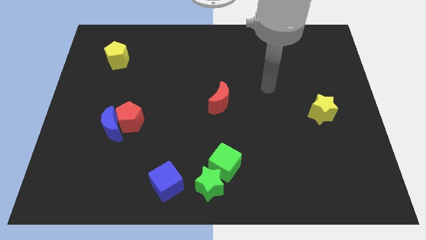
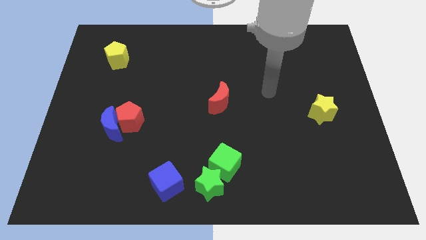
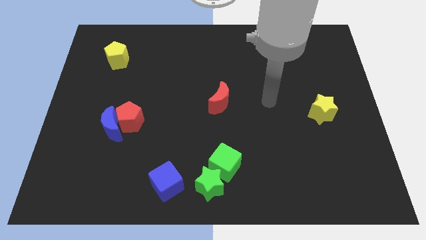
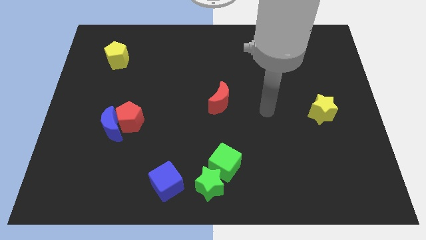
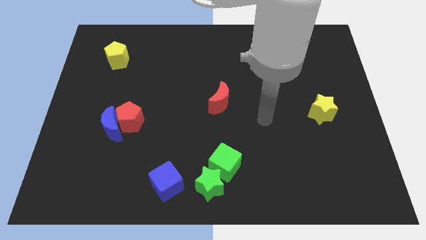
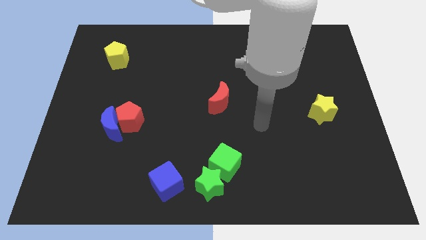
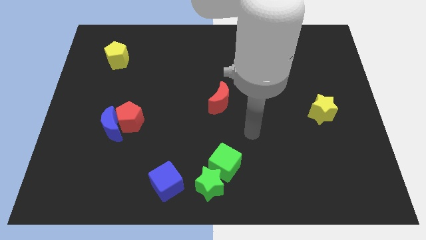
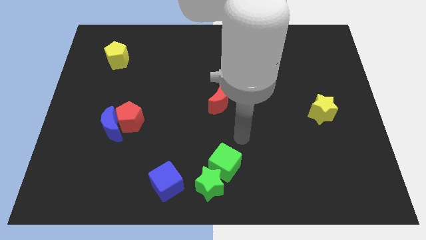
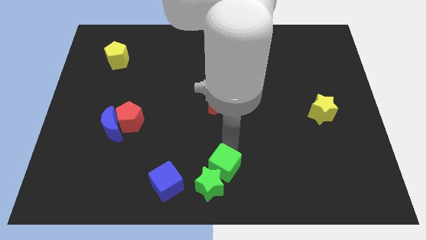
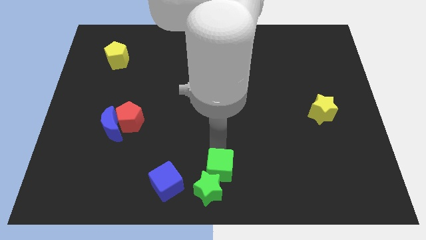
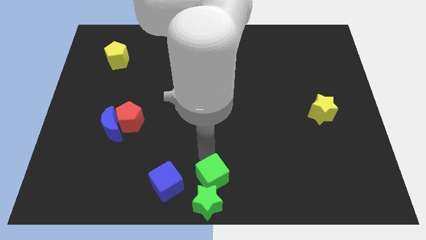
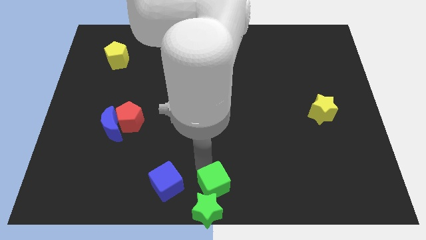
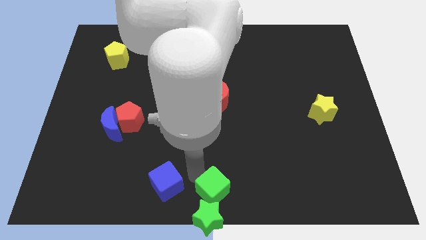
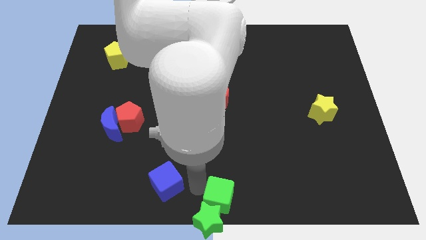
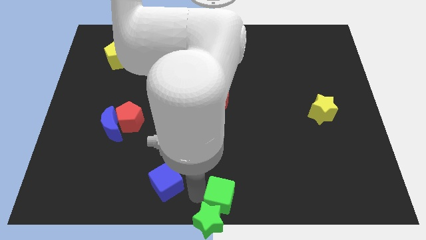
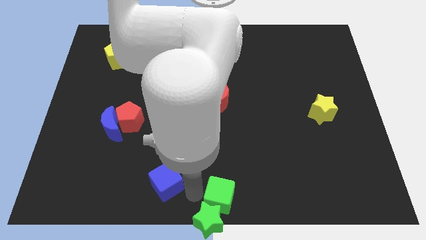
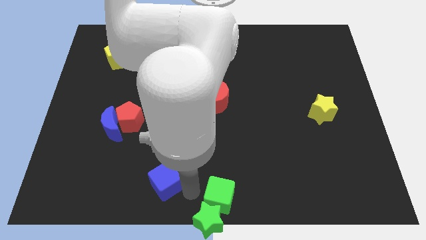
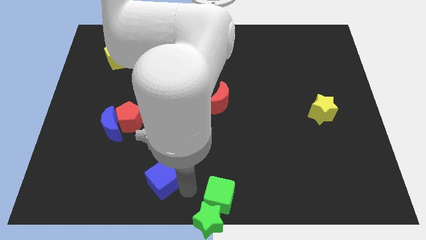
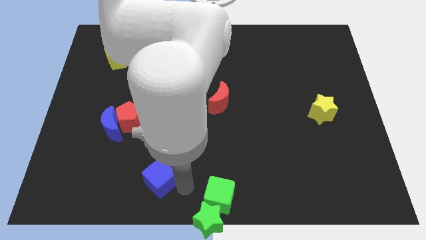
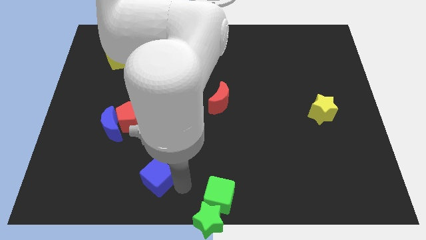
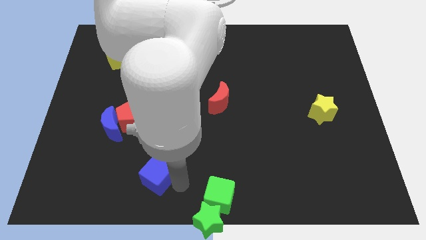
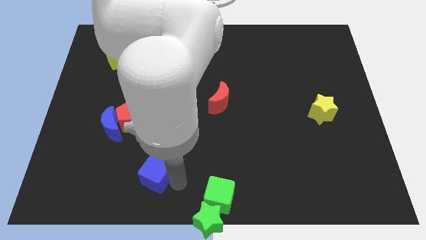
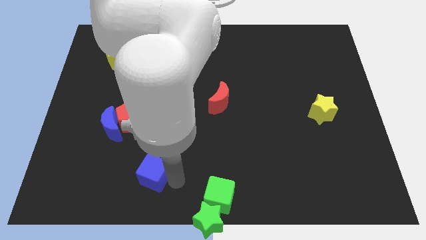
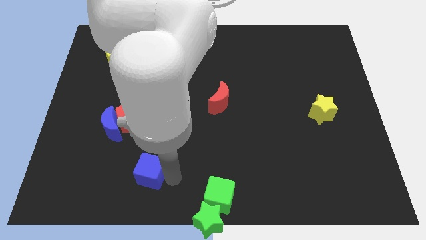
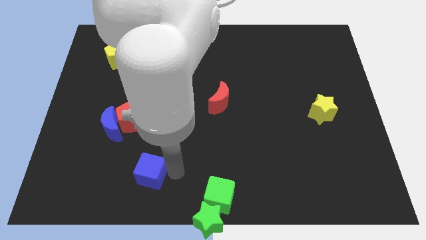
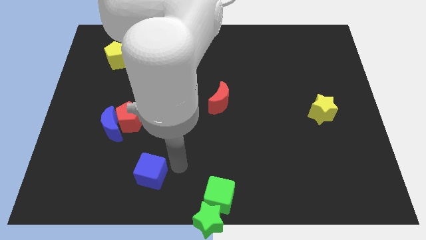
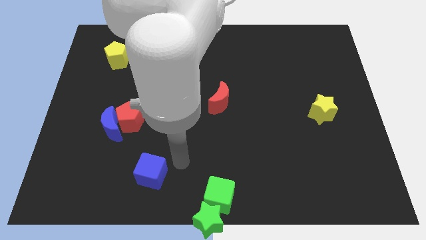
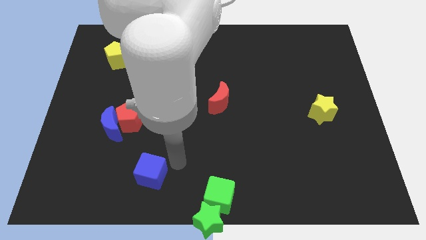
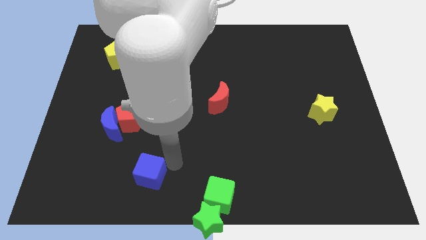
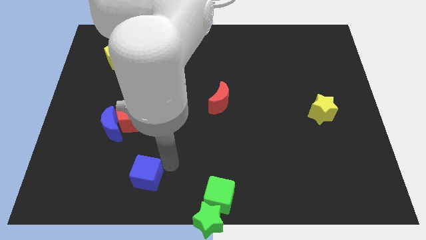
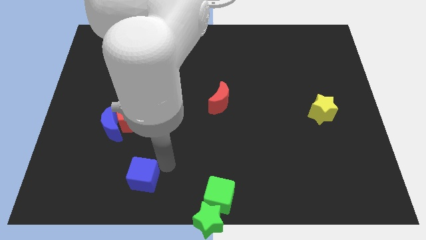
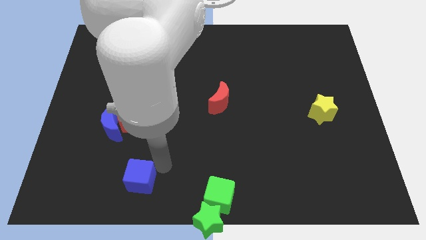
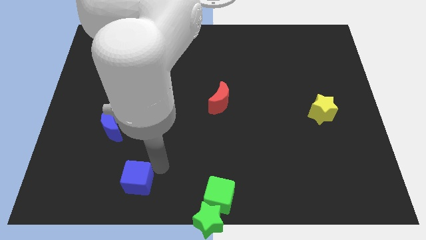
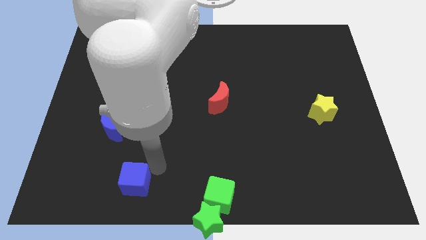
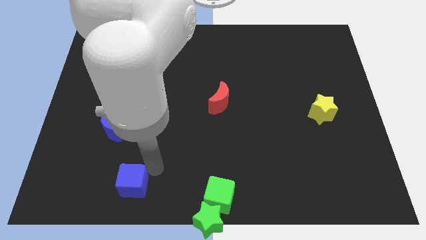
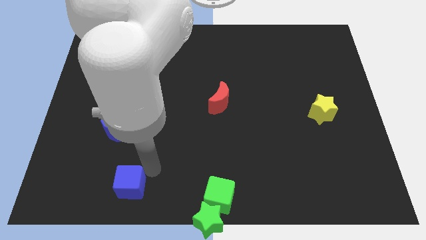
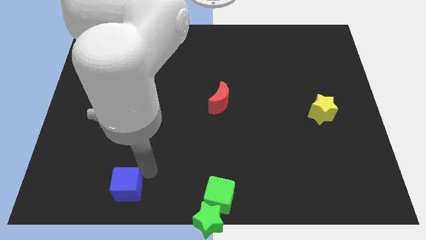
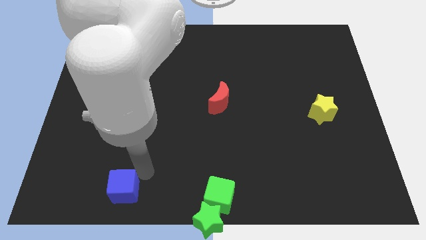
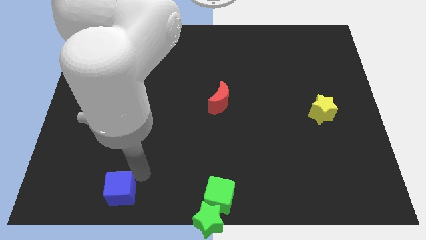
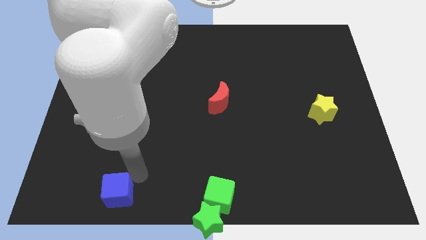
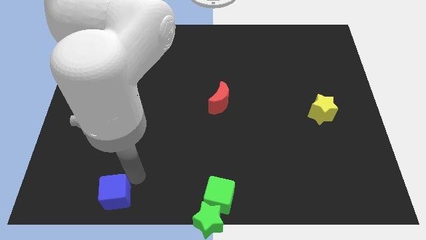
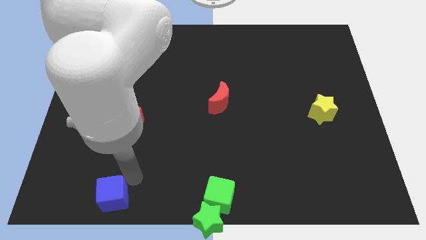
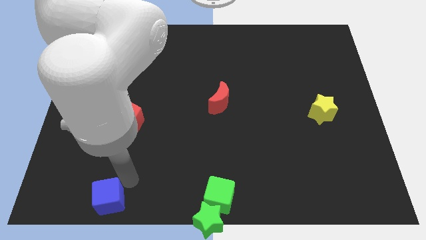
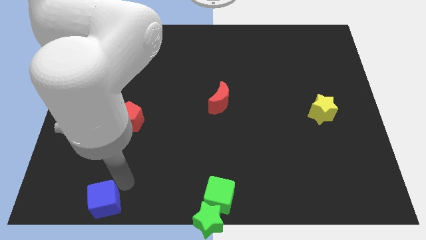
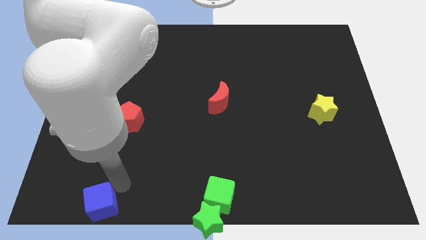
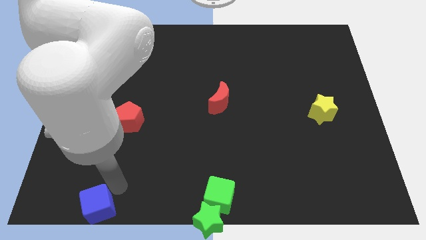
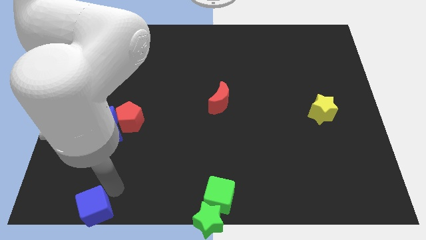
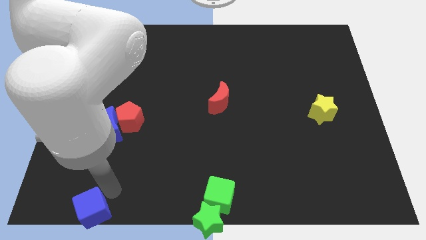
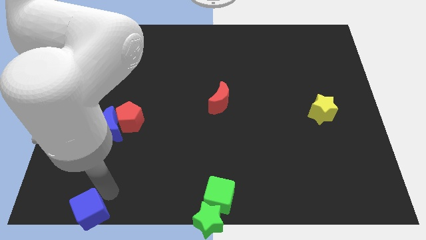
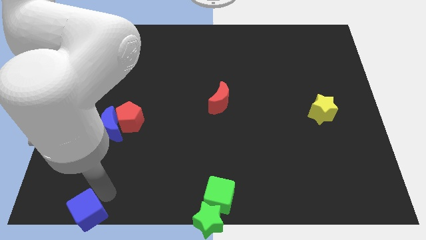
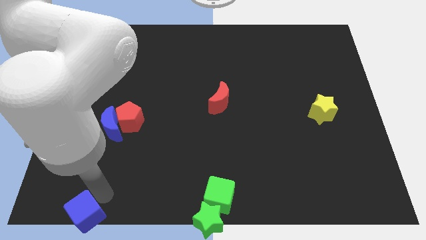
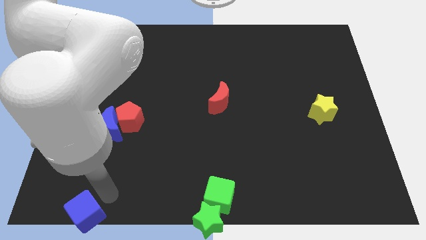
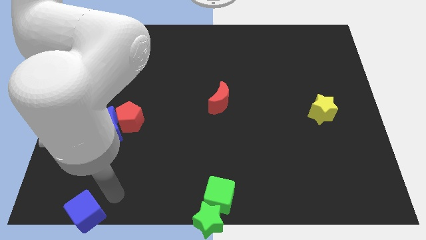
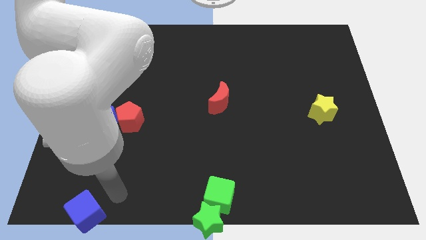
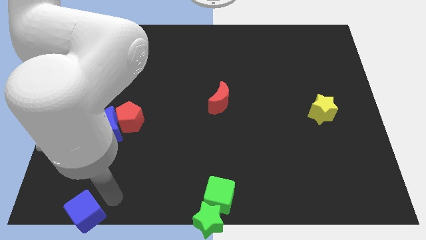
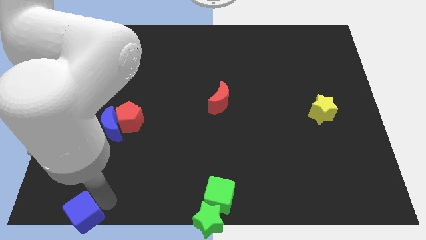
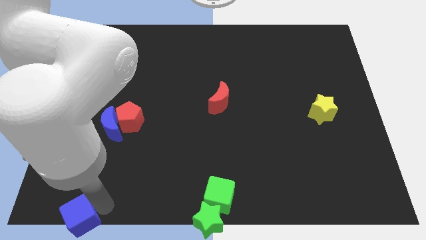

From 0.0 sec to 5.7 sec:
put the blue cube to the lower left corner

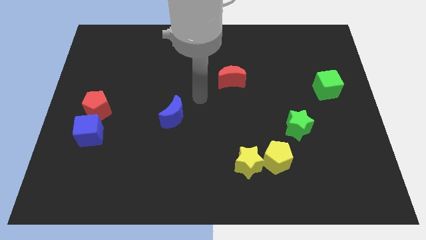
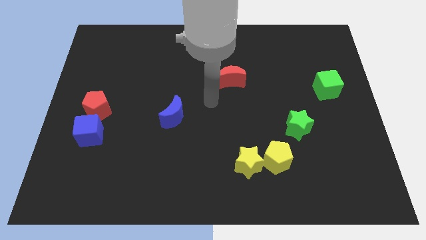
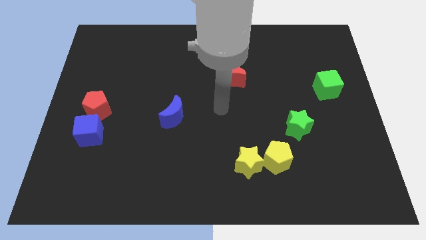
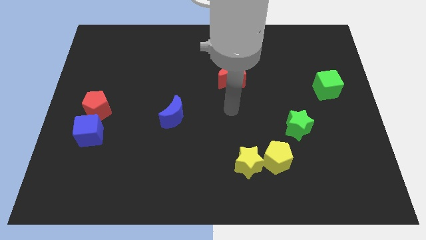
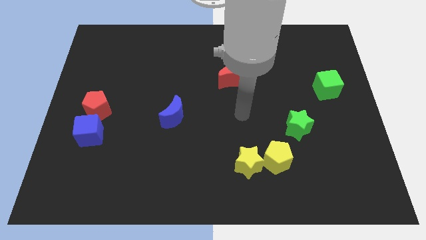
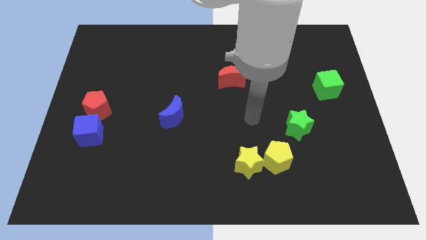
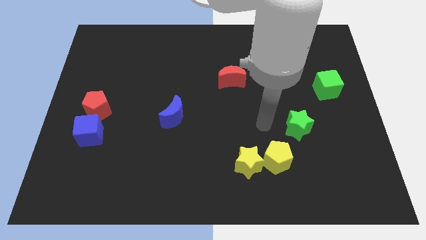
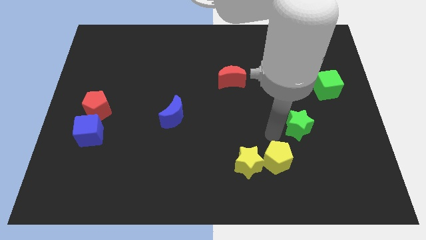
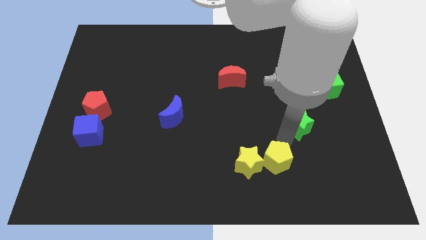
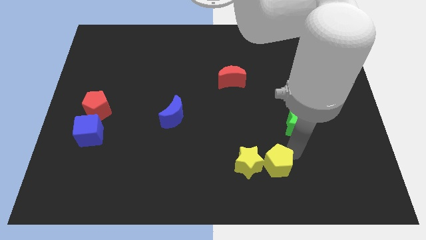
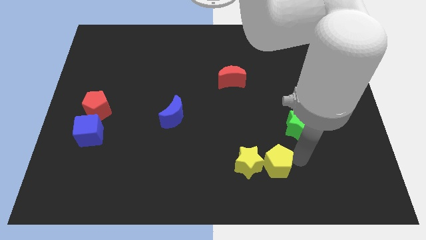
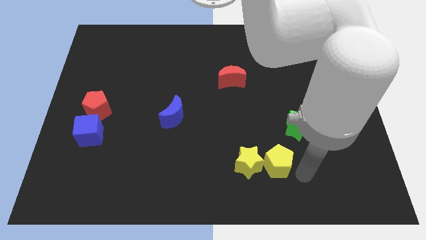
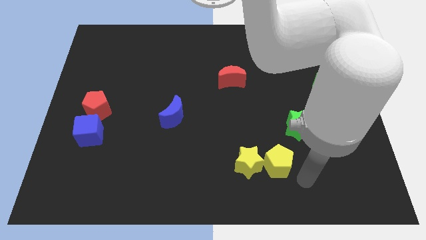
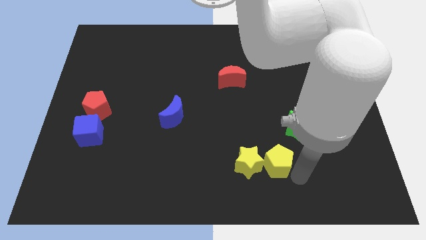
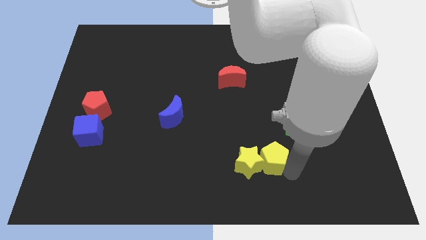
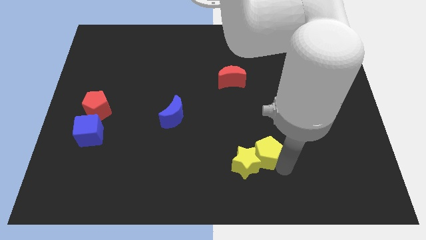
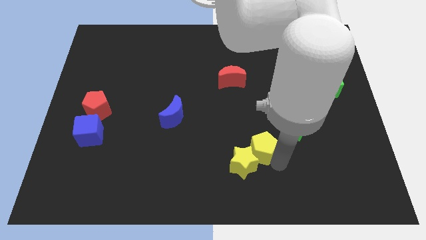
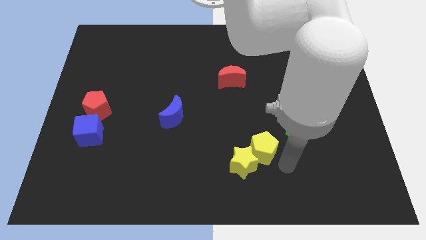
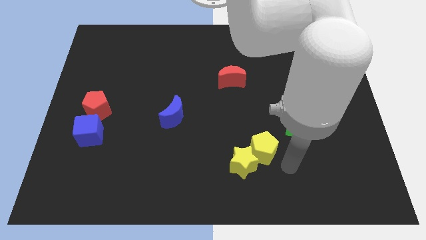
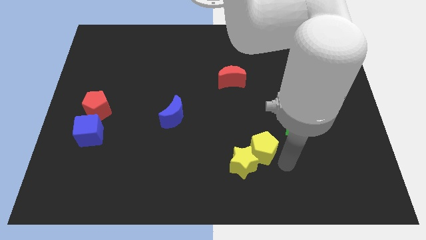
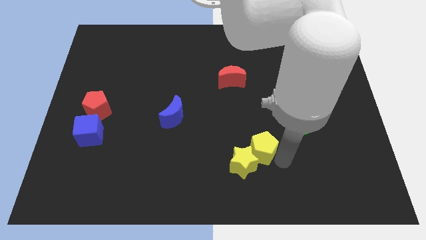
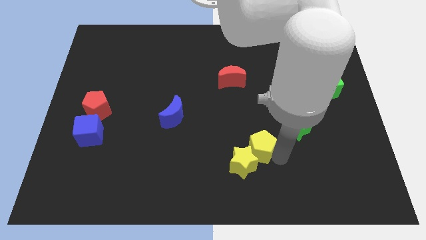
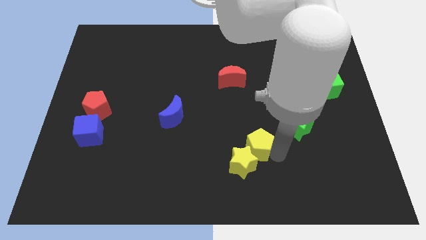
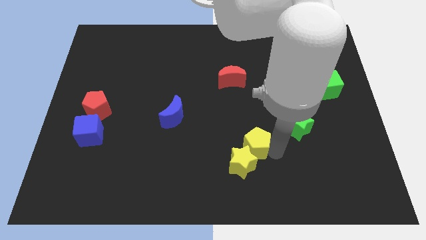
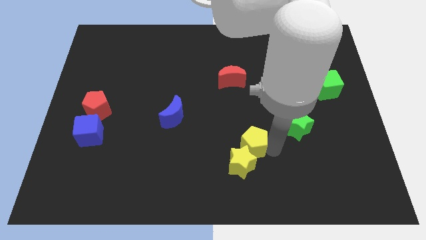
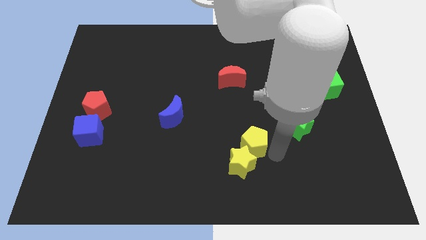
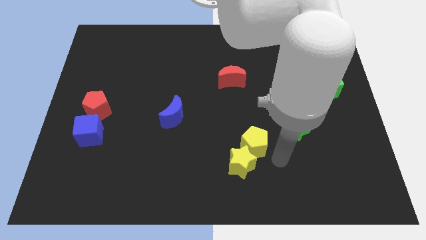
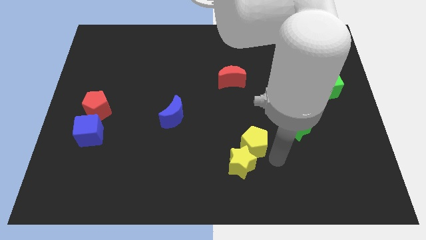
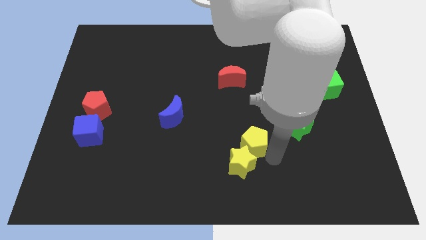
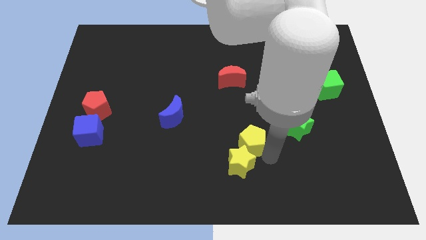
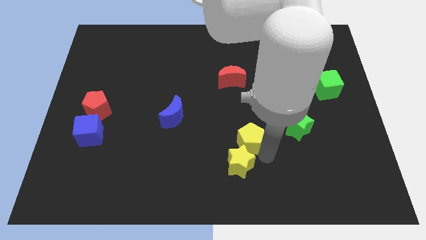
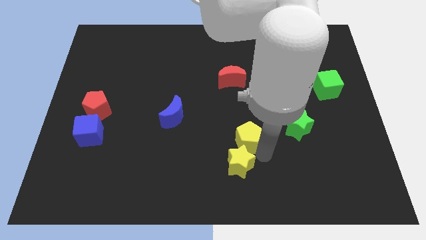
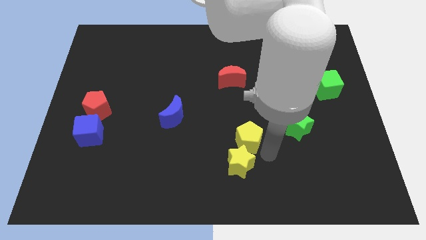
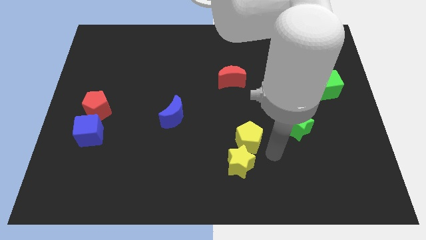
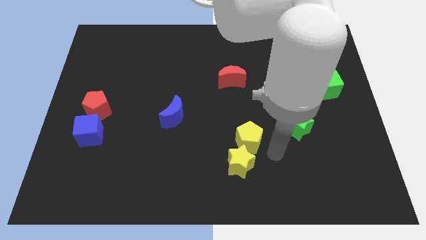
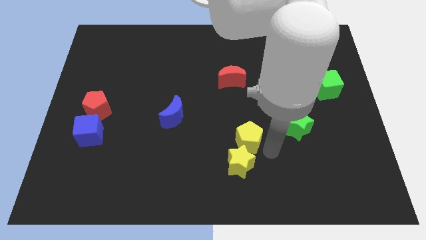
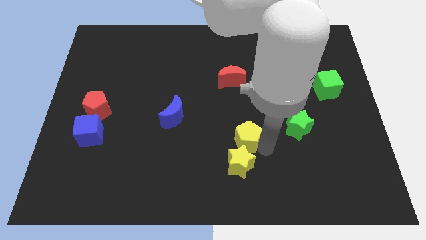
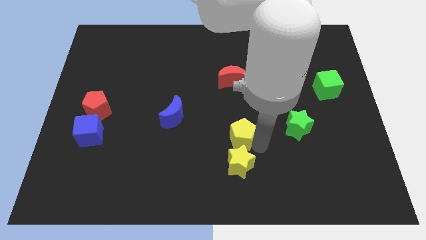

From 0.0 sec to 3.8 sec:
move the yellow pentagon to the middle of the board
